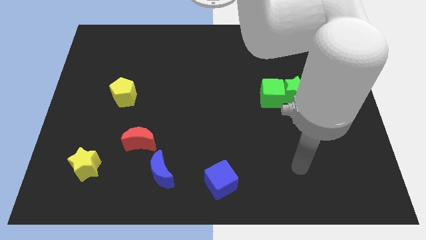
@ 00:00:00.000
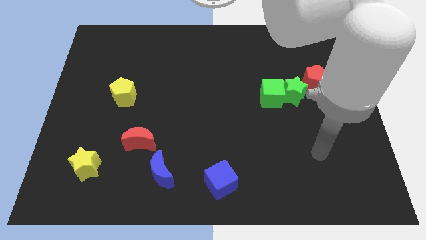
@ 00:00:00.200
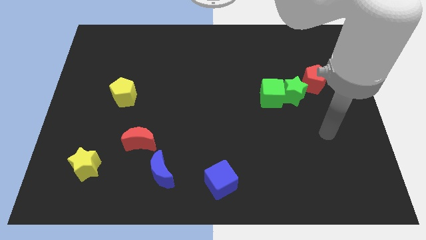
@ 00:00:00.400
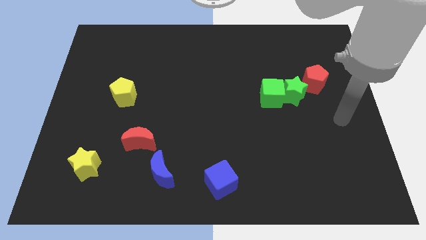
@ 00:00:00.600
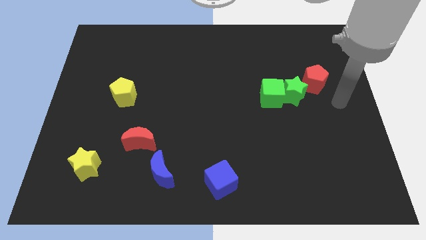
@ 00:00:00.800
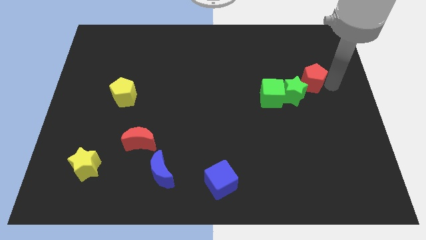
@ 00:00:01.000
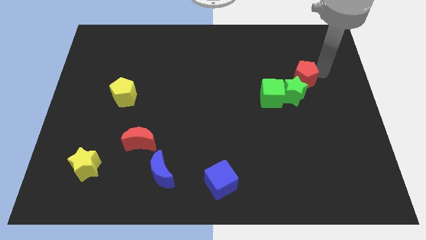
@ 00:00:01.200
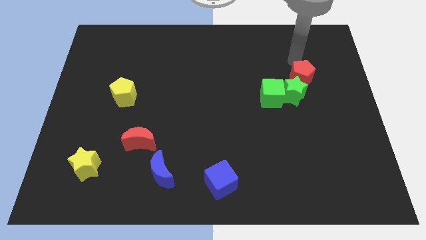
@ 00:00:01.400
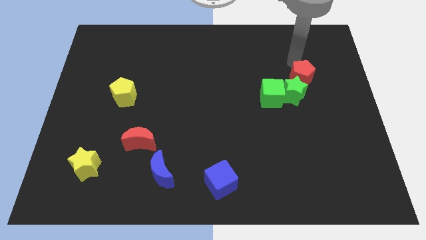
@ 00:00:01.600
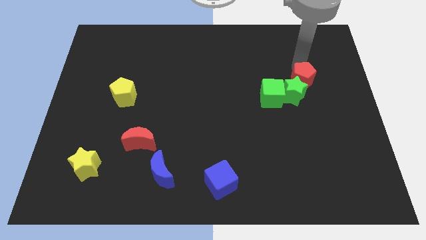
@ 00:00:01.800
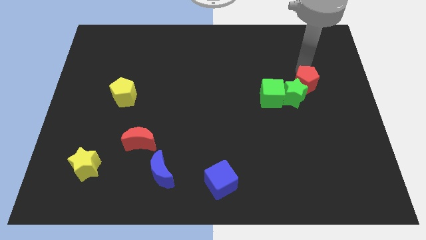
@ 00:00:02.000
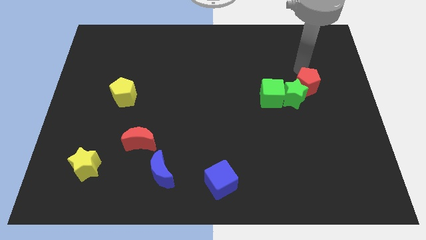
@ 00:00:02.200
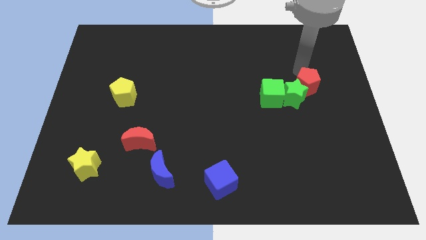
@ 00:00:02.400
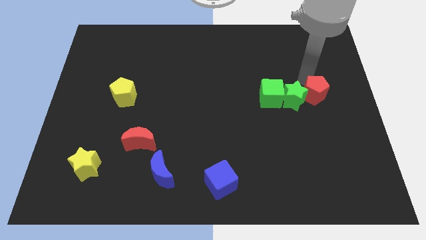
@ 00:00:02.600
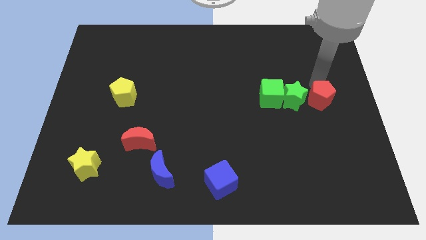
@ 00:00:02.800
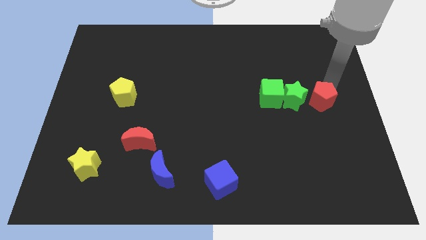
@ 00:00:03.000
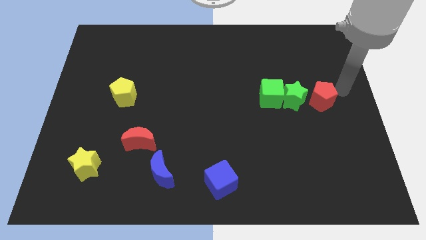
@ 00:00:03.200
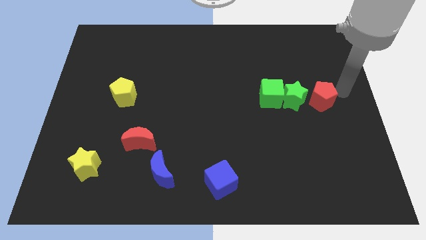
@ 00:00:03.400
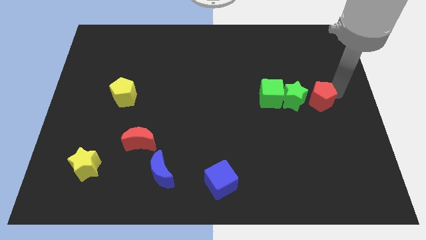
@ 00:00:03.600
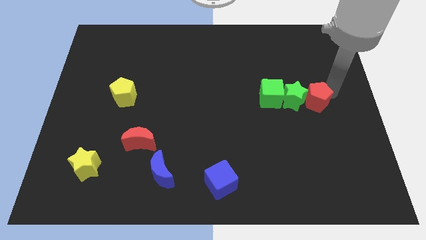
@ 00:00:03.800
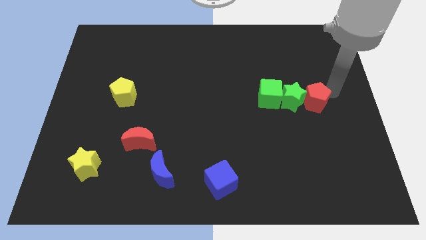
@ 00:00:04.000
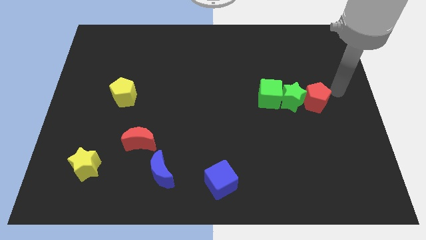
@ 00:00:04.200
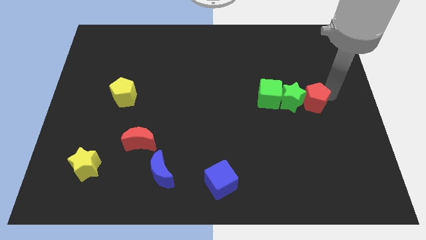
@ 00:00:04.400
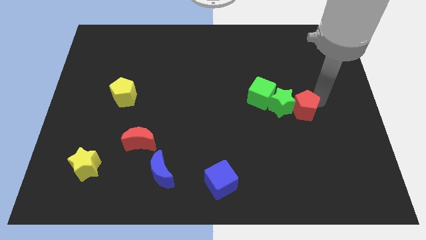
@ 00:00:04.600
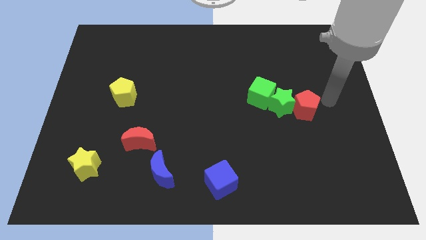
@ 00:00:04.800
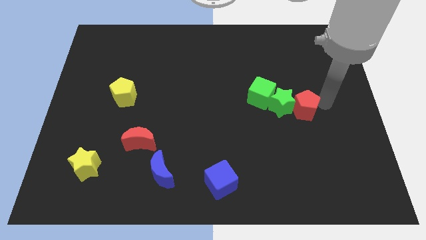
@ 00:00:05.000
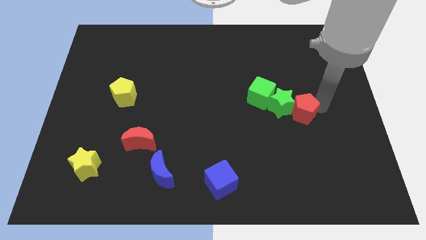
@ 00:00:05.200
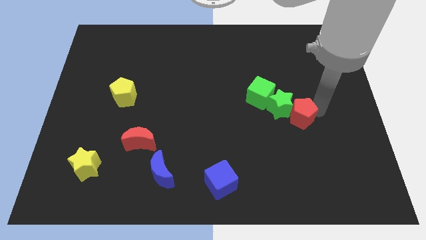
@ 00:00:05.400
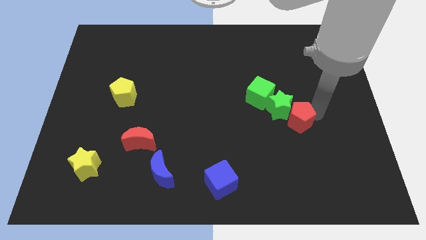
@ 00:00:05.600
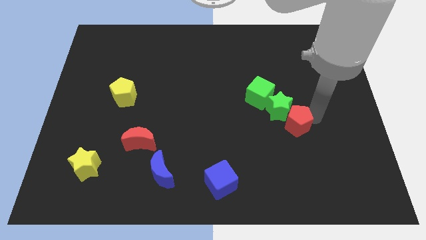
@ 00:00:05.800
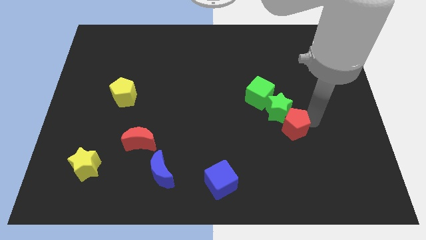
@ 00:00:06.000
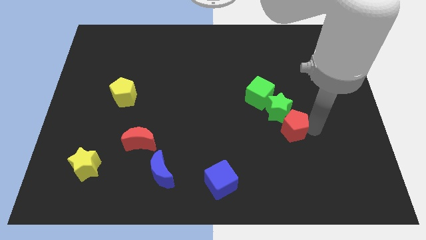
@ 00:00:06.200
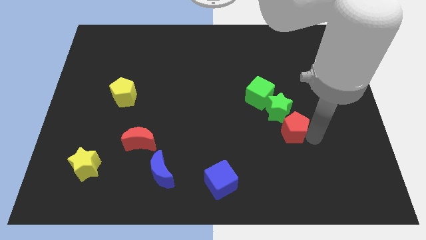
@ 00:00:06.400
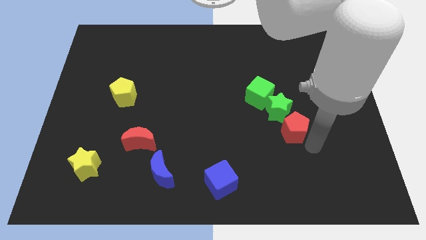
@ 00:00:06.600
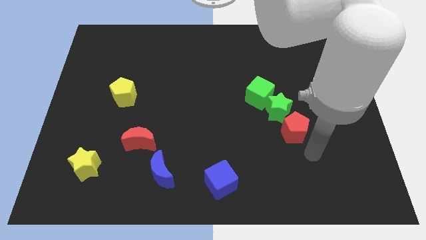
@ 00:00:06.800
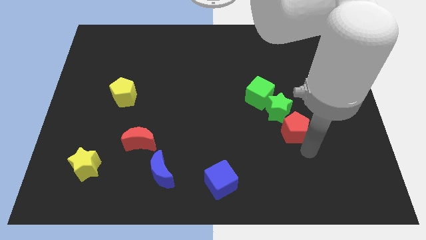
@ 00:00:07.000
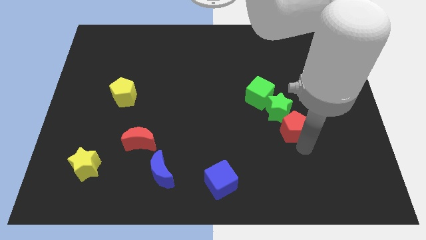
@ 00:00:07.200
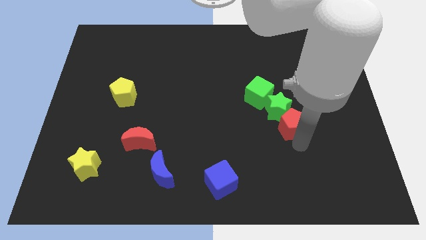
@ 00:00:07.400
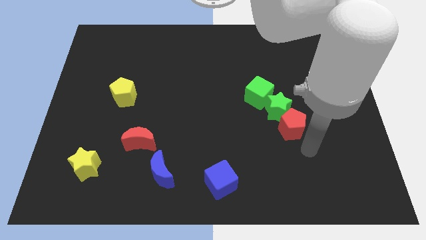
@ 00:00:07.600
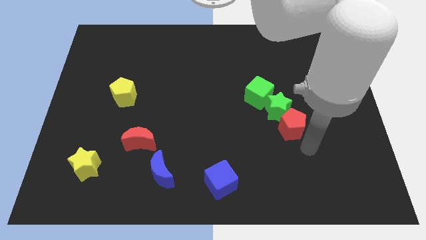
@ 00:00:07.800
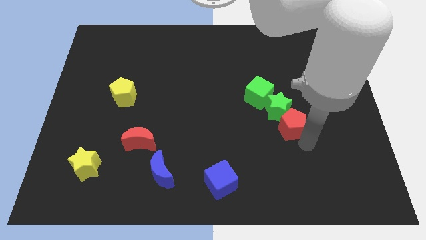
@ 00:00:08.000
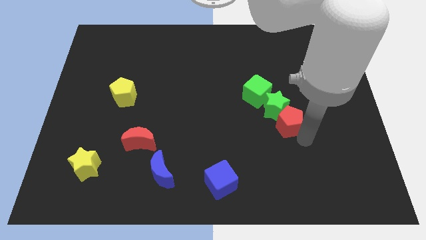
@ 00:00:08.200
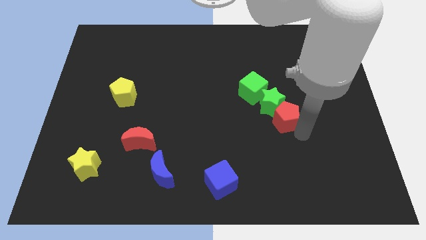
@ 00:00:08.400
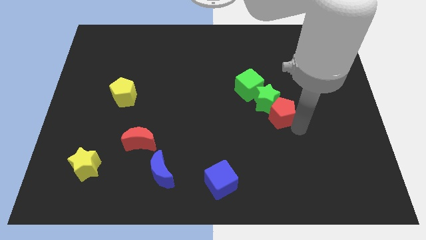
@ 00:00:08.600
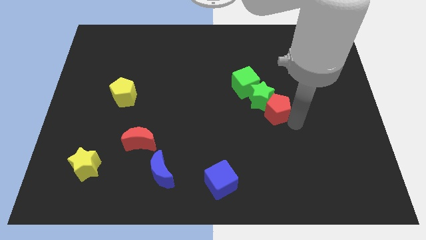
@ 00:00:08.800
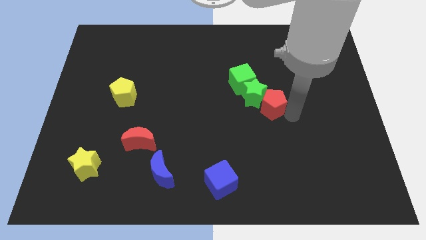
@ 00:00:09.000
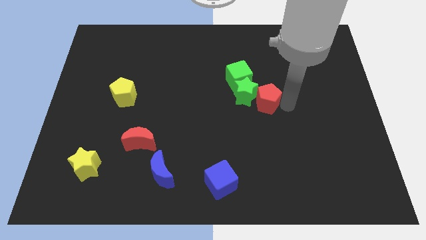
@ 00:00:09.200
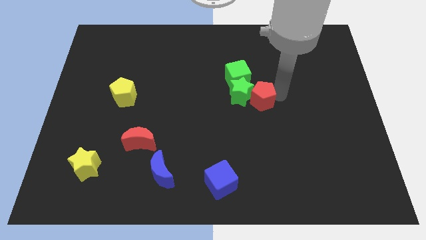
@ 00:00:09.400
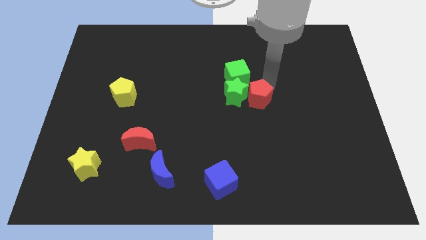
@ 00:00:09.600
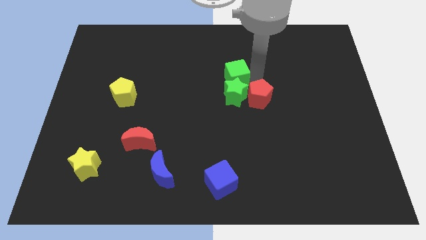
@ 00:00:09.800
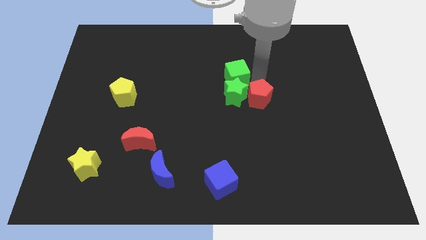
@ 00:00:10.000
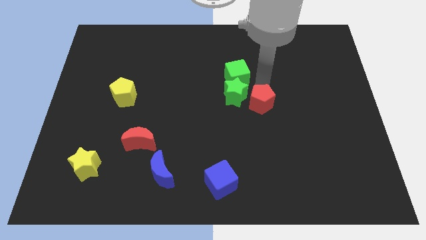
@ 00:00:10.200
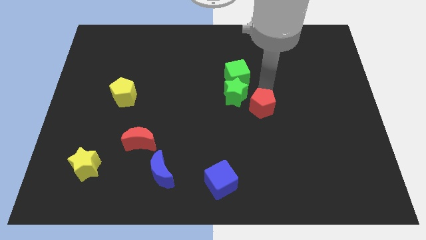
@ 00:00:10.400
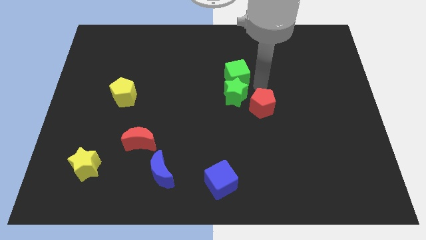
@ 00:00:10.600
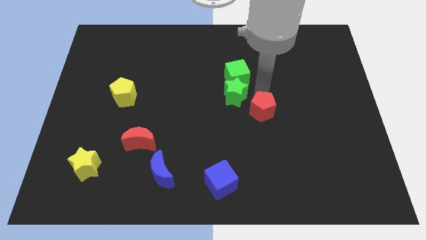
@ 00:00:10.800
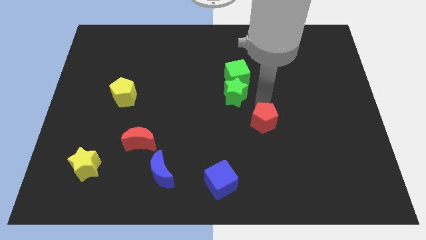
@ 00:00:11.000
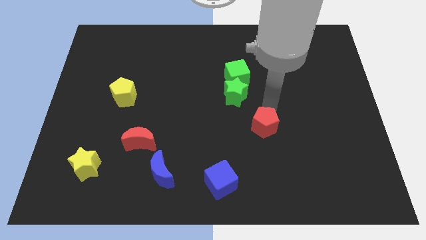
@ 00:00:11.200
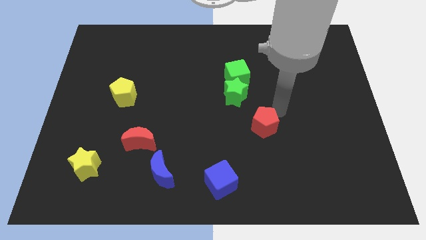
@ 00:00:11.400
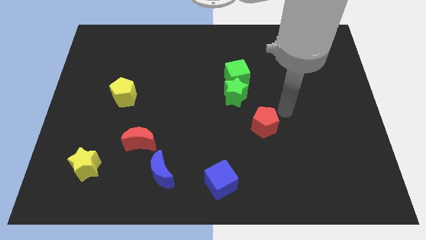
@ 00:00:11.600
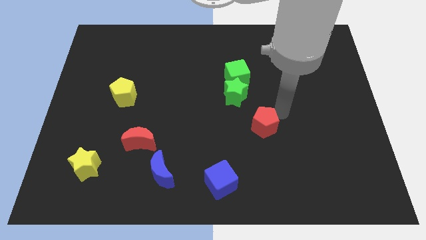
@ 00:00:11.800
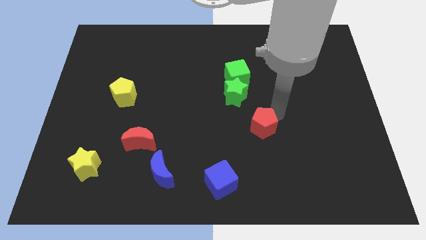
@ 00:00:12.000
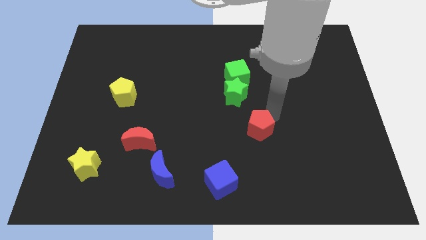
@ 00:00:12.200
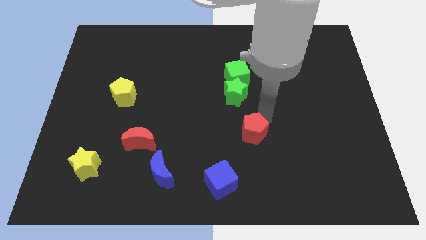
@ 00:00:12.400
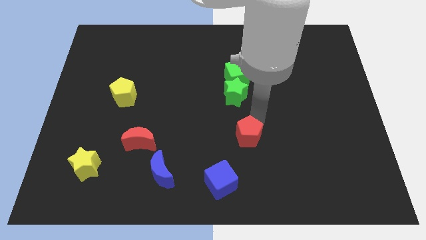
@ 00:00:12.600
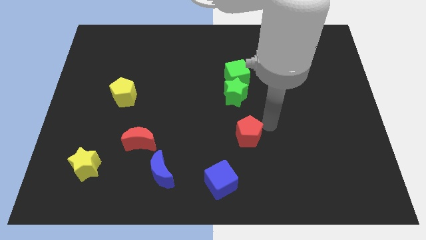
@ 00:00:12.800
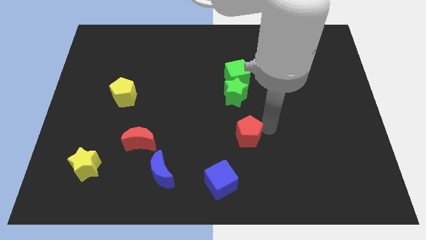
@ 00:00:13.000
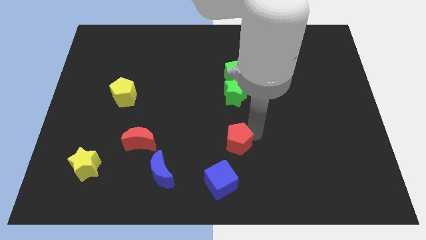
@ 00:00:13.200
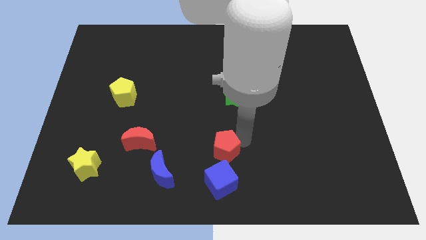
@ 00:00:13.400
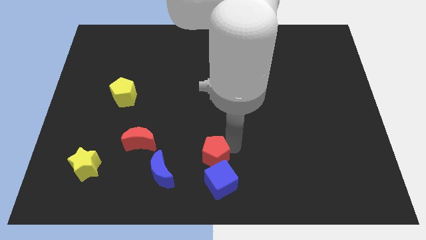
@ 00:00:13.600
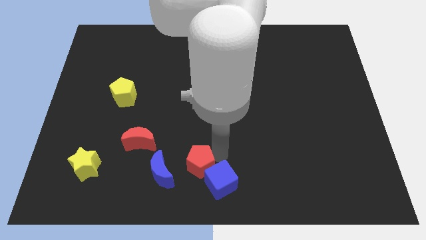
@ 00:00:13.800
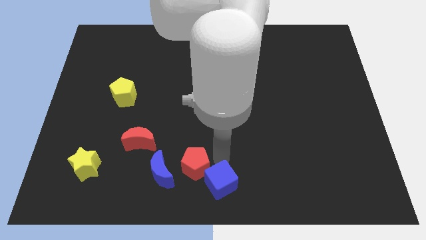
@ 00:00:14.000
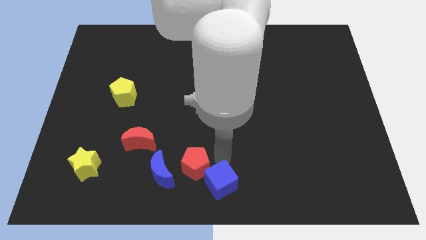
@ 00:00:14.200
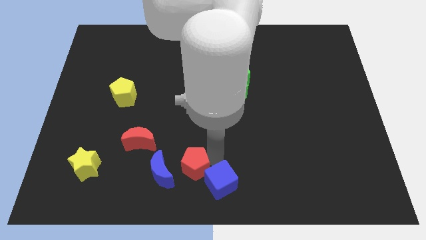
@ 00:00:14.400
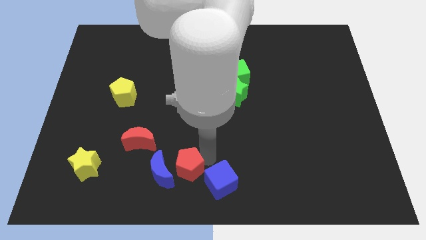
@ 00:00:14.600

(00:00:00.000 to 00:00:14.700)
push the red pentagon towards the blue moon
